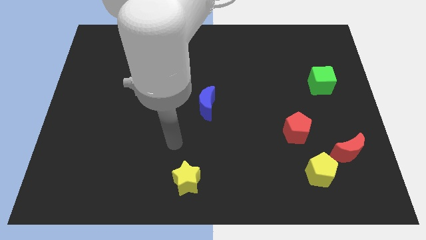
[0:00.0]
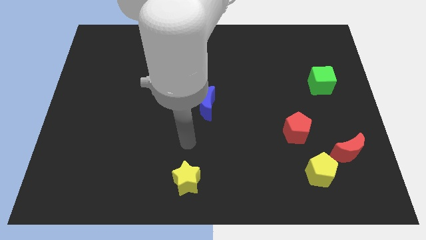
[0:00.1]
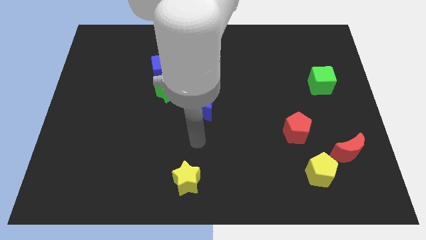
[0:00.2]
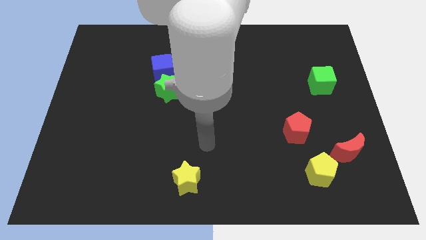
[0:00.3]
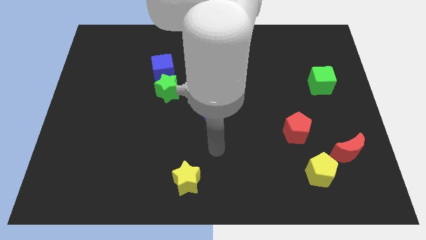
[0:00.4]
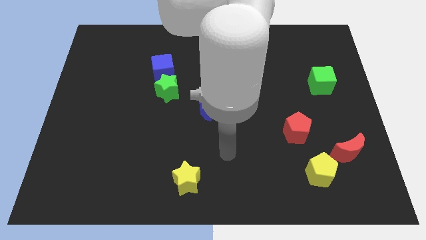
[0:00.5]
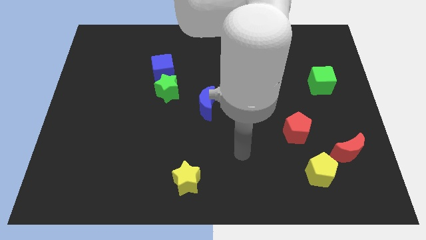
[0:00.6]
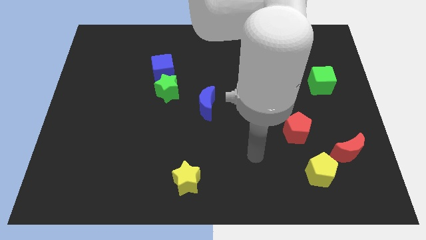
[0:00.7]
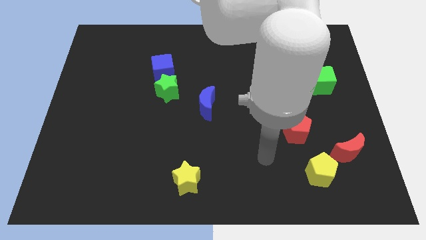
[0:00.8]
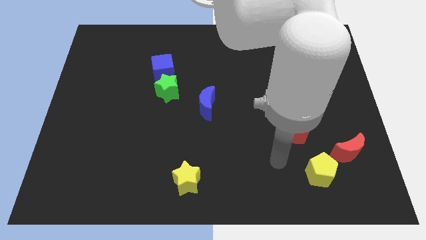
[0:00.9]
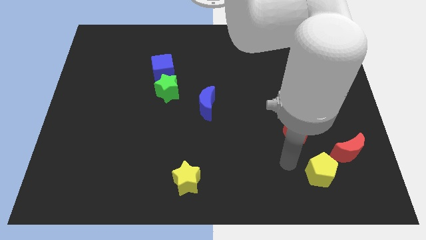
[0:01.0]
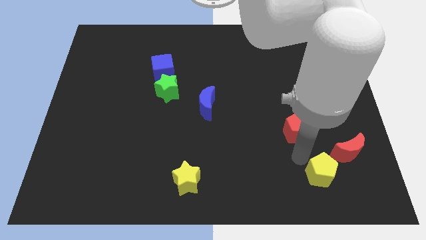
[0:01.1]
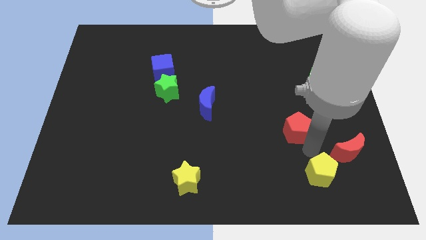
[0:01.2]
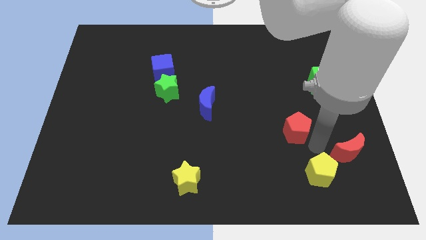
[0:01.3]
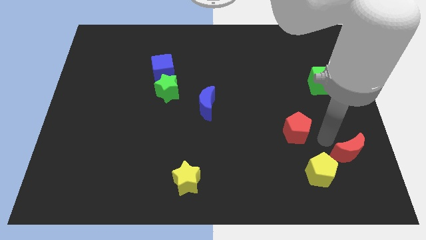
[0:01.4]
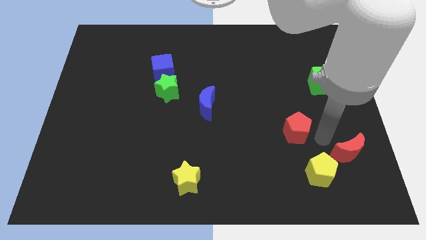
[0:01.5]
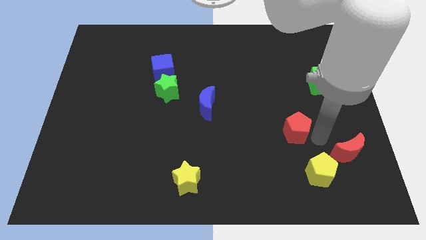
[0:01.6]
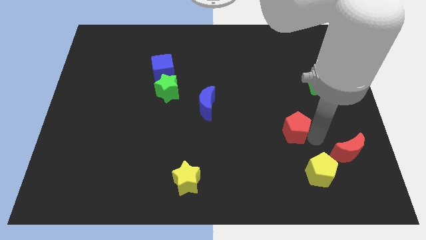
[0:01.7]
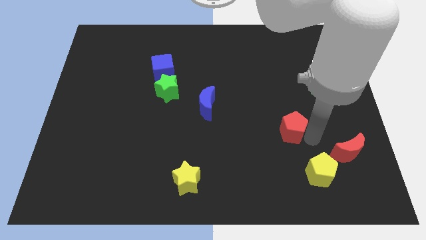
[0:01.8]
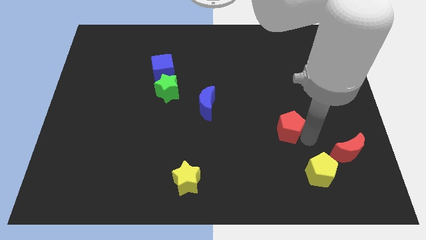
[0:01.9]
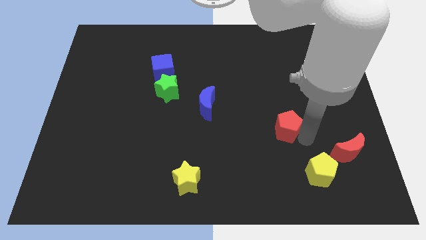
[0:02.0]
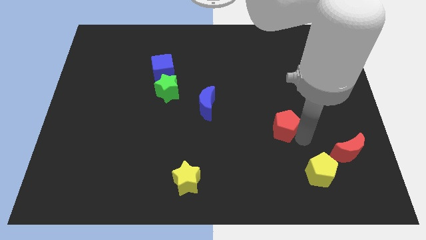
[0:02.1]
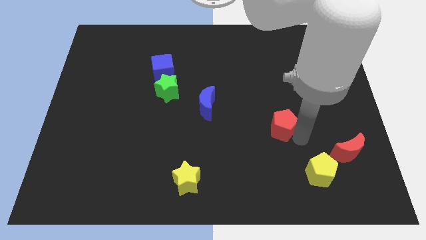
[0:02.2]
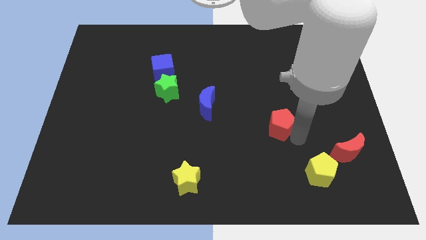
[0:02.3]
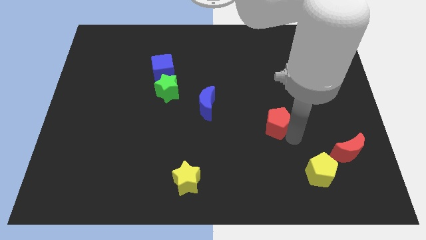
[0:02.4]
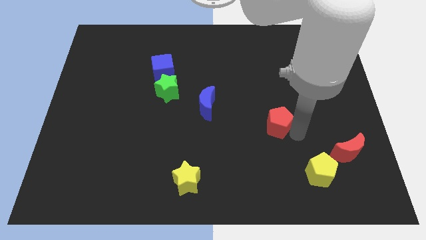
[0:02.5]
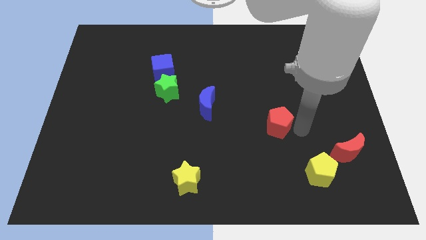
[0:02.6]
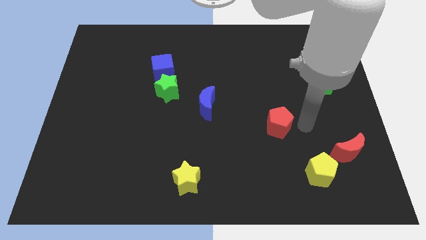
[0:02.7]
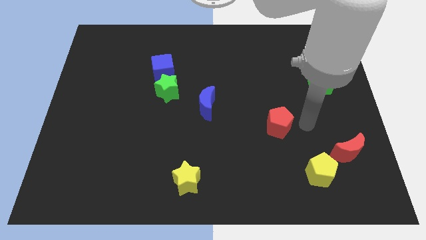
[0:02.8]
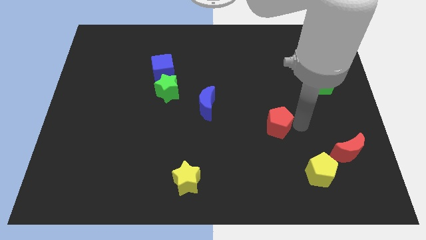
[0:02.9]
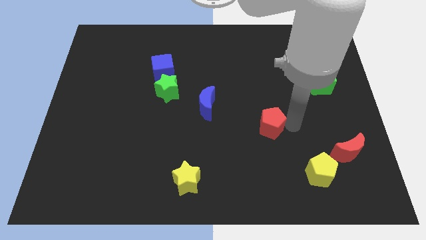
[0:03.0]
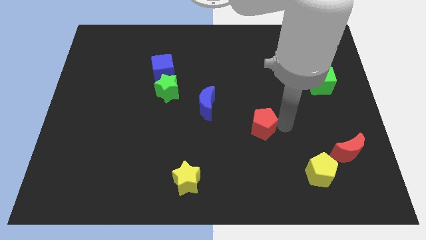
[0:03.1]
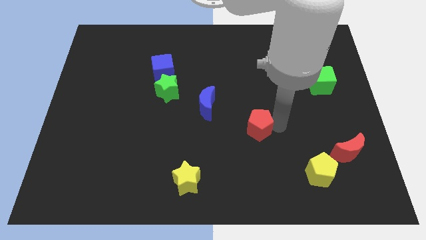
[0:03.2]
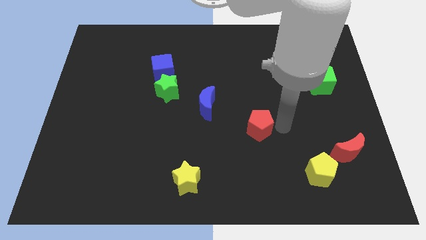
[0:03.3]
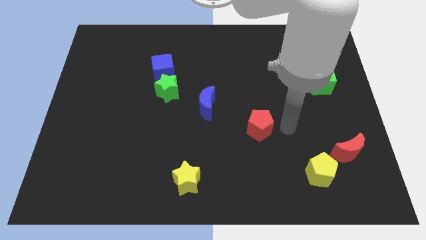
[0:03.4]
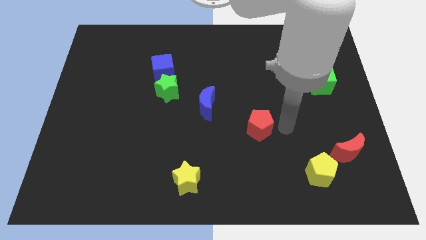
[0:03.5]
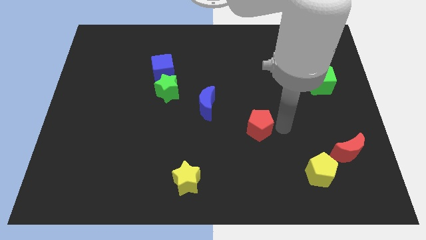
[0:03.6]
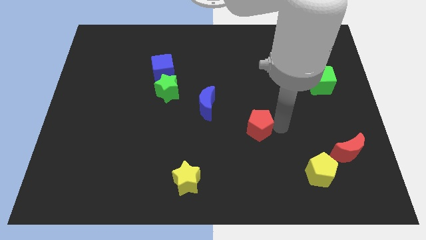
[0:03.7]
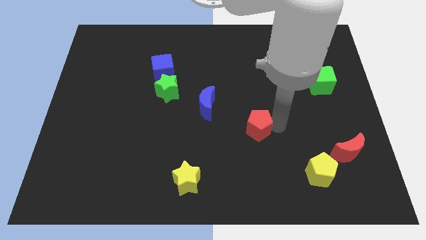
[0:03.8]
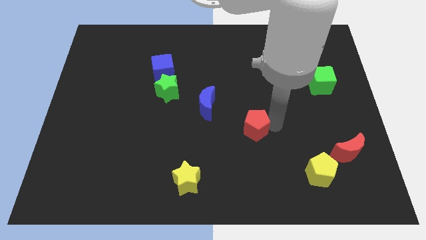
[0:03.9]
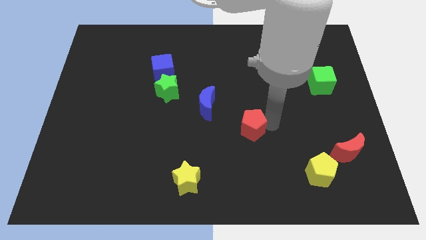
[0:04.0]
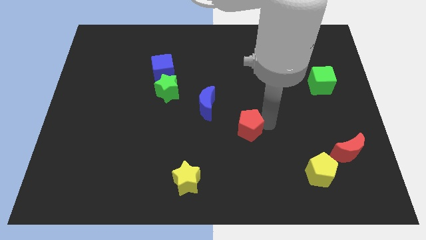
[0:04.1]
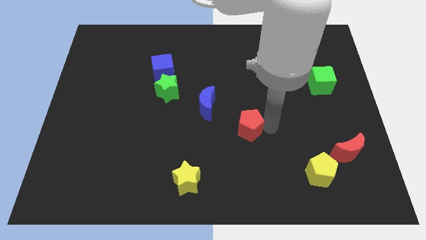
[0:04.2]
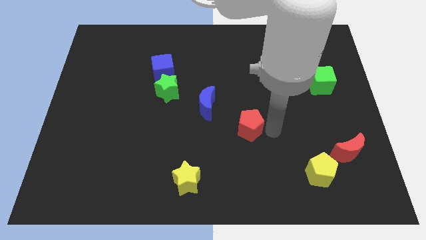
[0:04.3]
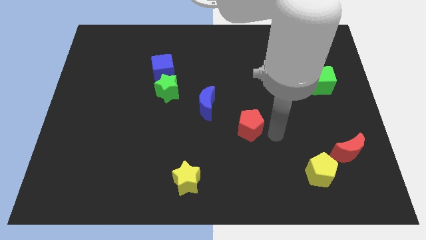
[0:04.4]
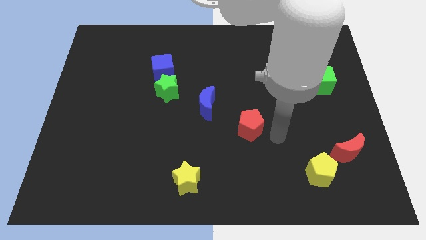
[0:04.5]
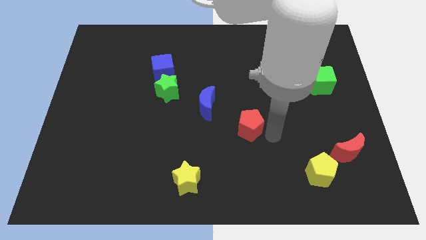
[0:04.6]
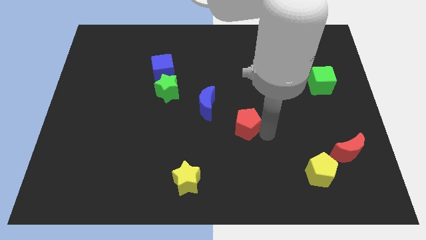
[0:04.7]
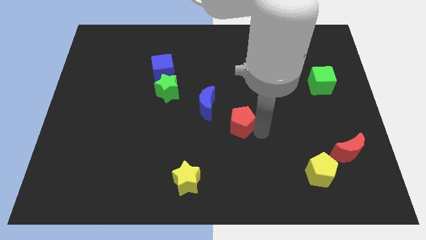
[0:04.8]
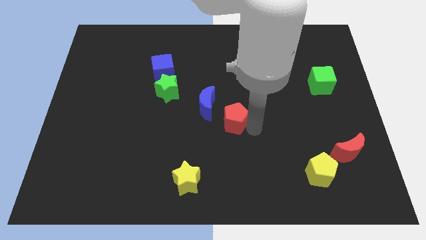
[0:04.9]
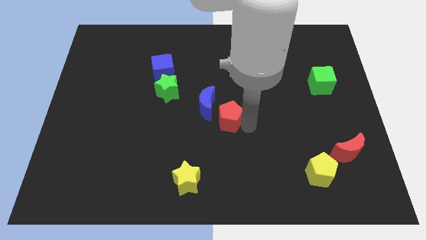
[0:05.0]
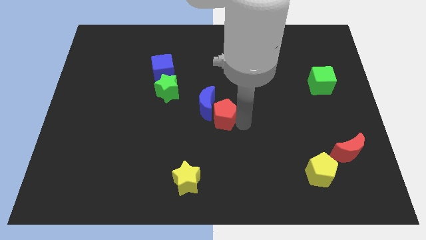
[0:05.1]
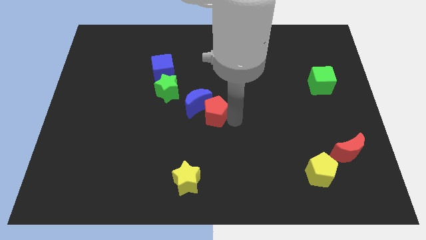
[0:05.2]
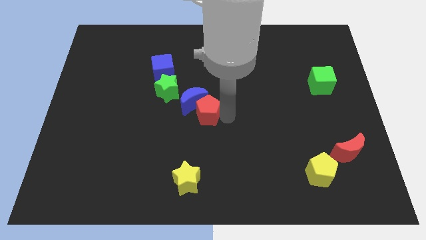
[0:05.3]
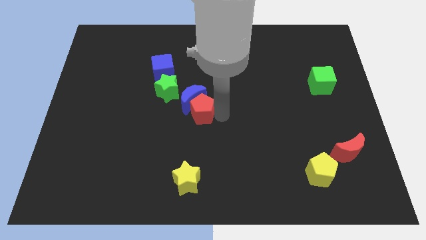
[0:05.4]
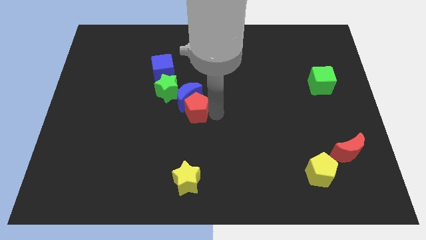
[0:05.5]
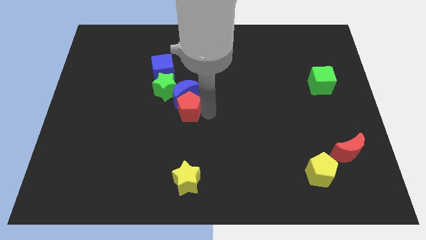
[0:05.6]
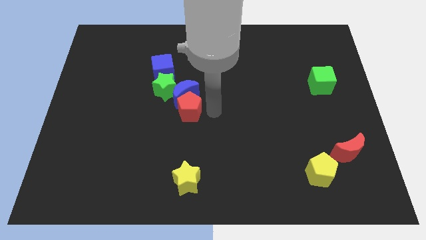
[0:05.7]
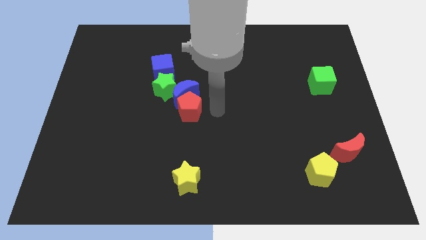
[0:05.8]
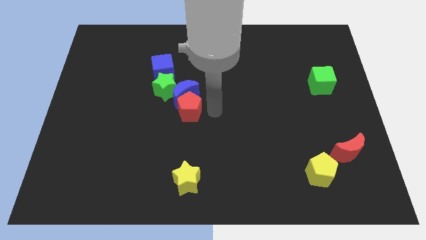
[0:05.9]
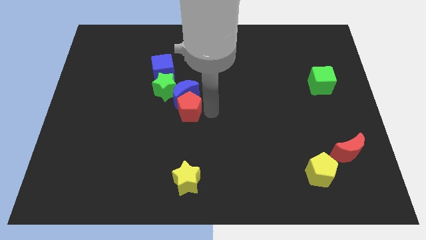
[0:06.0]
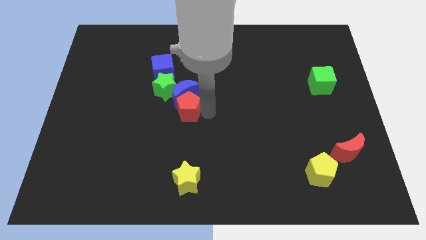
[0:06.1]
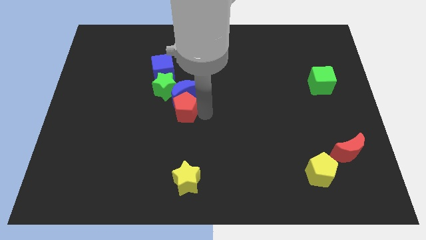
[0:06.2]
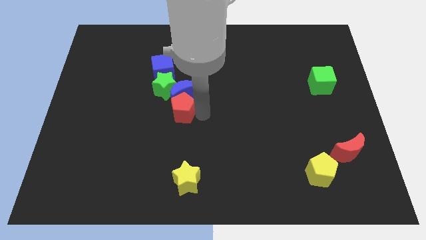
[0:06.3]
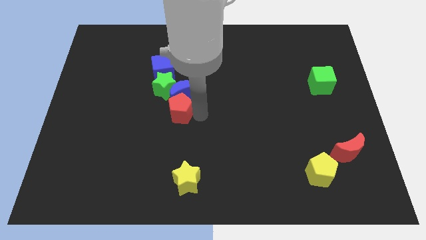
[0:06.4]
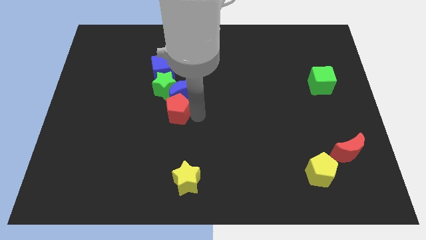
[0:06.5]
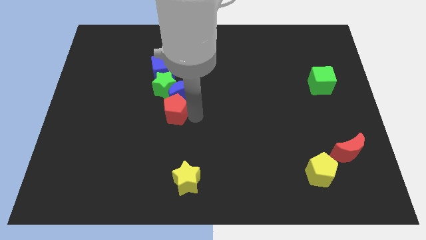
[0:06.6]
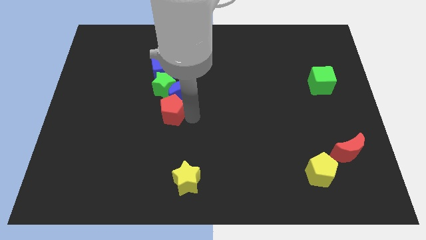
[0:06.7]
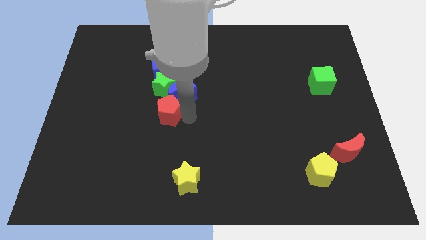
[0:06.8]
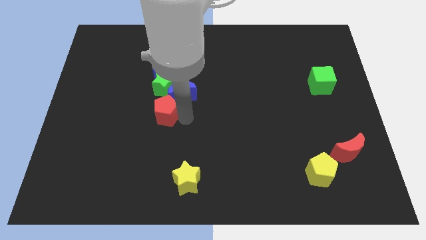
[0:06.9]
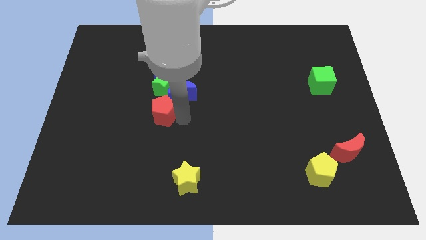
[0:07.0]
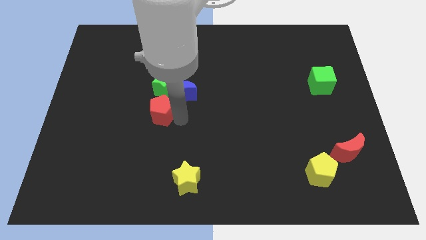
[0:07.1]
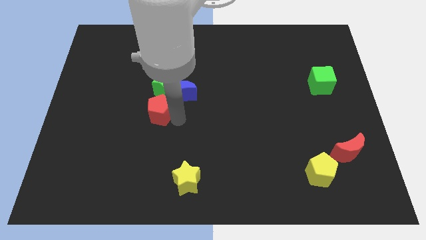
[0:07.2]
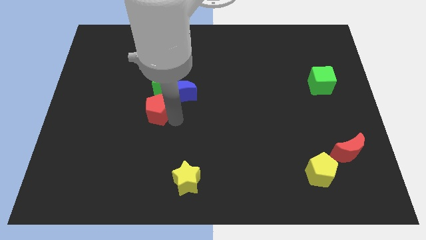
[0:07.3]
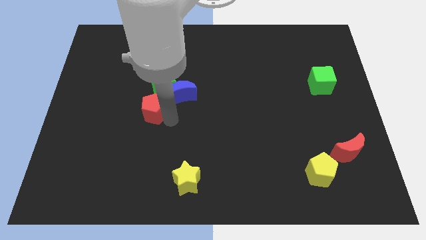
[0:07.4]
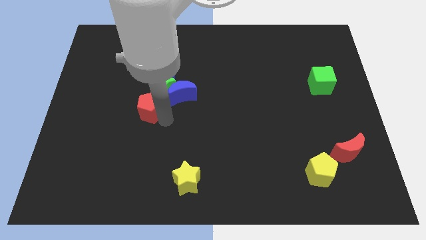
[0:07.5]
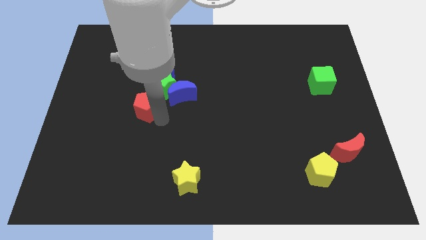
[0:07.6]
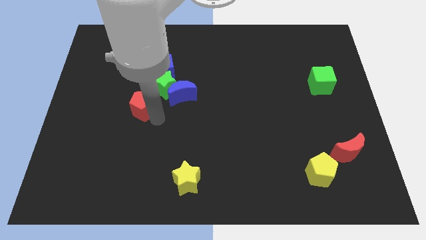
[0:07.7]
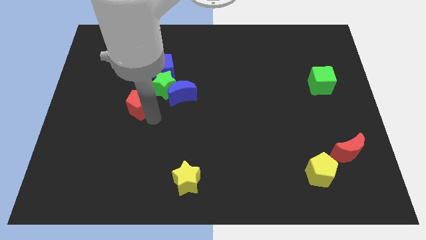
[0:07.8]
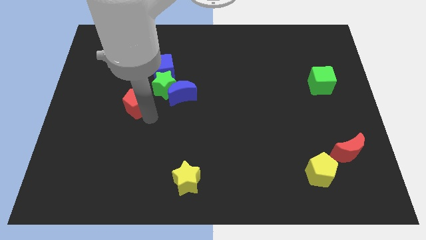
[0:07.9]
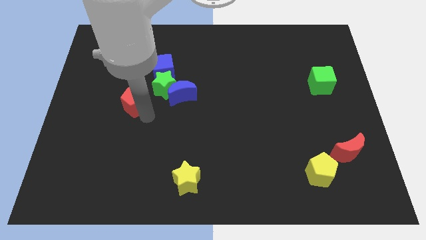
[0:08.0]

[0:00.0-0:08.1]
move the red pentagon to the left side of the green star
